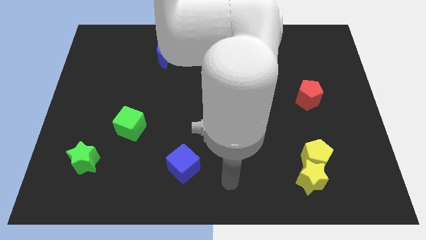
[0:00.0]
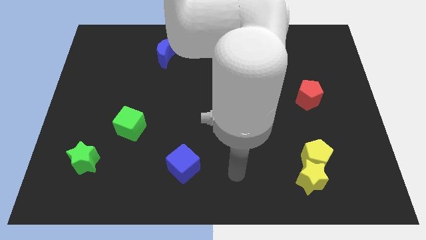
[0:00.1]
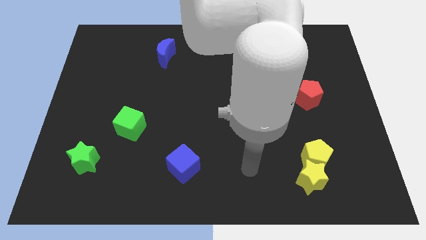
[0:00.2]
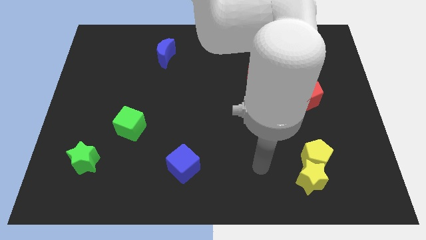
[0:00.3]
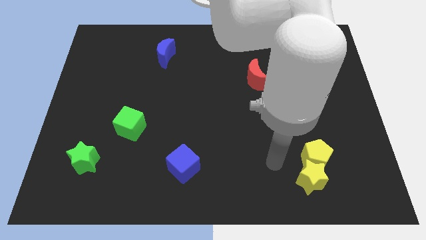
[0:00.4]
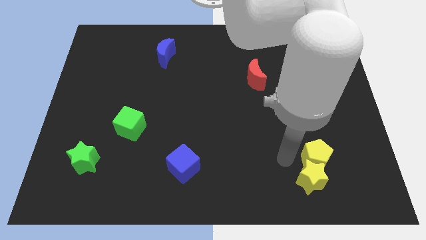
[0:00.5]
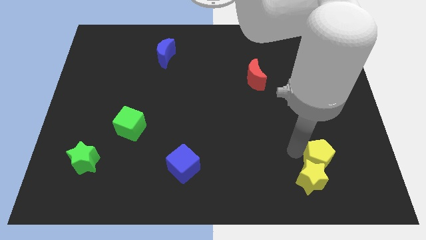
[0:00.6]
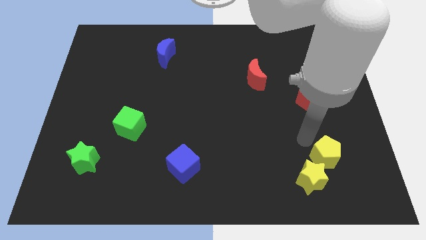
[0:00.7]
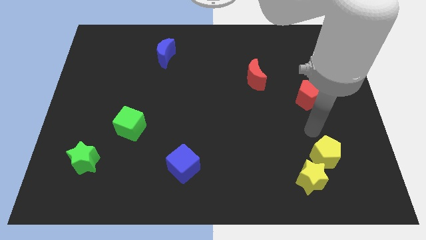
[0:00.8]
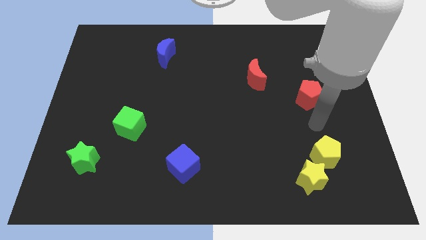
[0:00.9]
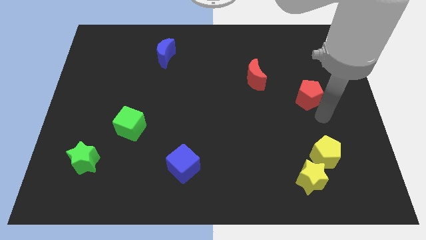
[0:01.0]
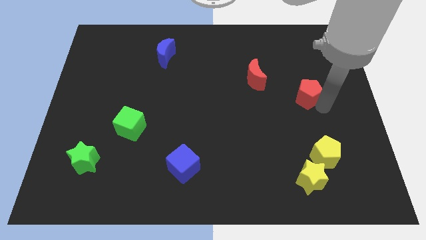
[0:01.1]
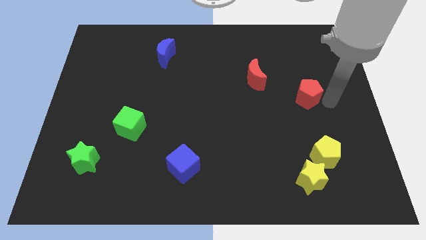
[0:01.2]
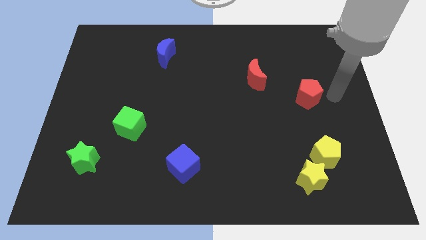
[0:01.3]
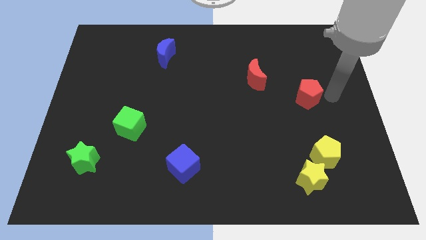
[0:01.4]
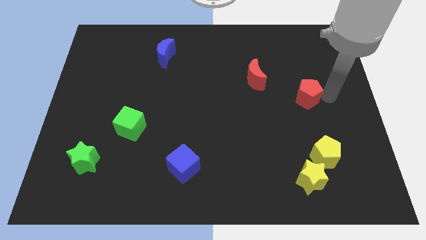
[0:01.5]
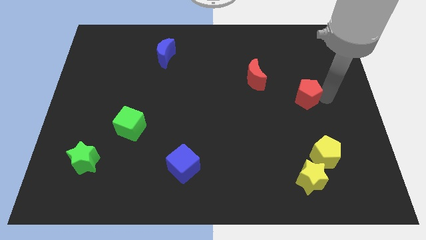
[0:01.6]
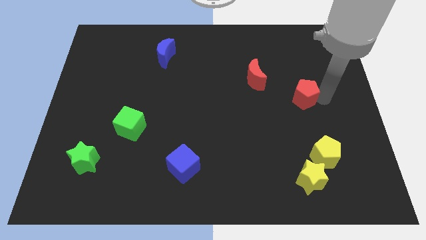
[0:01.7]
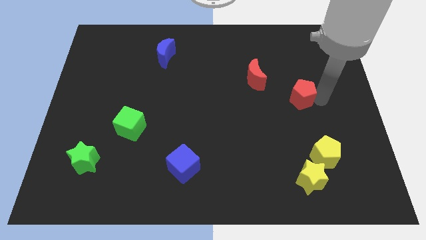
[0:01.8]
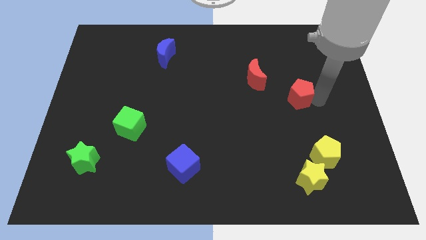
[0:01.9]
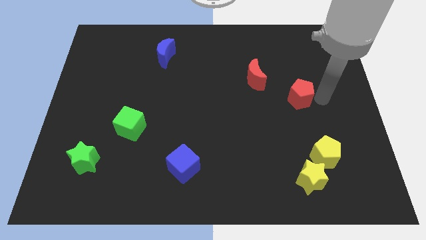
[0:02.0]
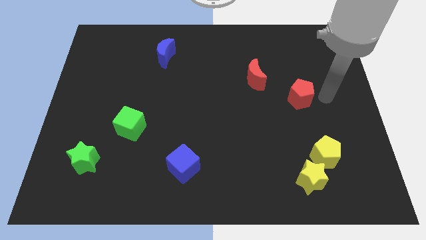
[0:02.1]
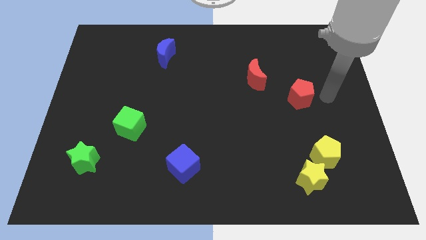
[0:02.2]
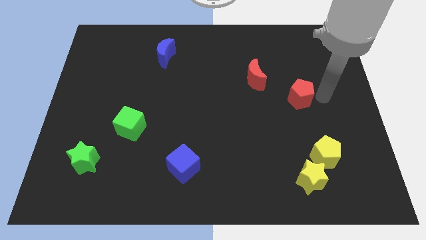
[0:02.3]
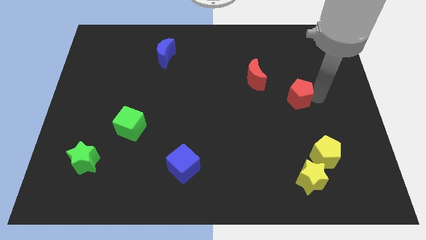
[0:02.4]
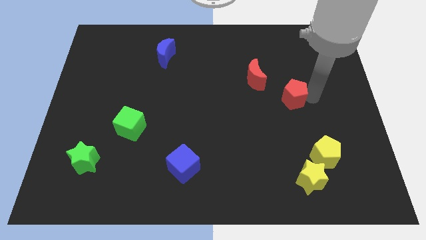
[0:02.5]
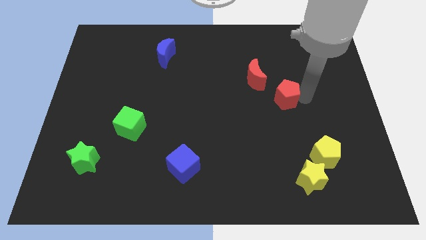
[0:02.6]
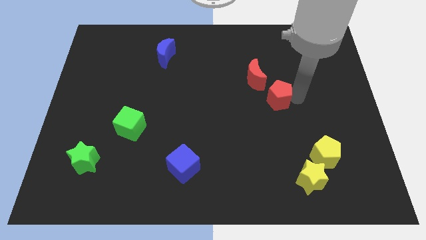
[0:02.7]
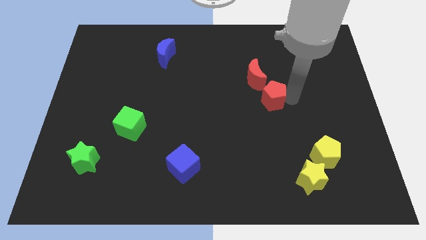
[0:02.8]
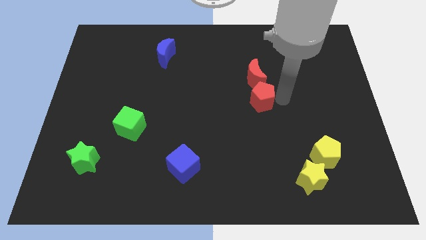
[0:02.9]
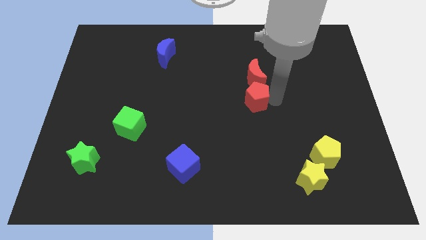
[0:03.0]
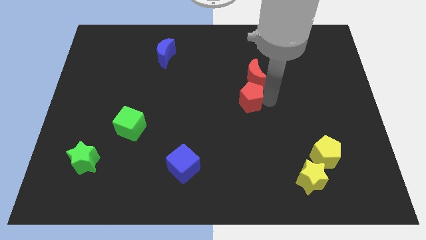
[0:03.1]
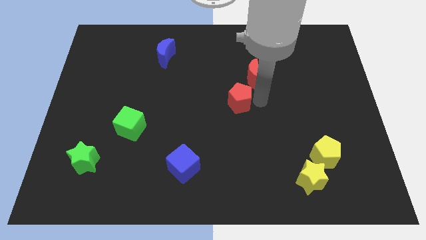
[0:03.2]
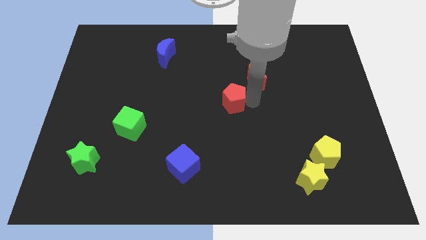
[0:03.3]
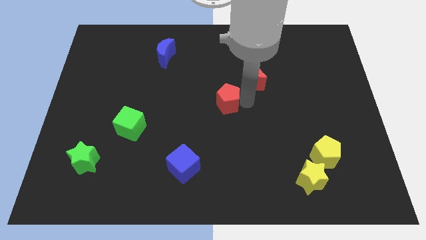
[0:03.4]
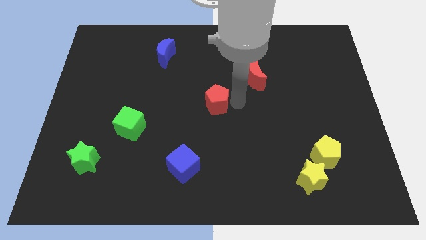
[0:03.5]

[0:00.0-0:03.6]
push the red pentagon left

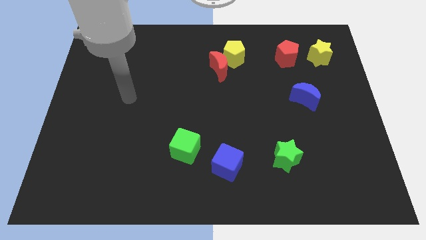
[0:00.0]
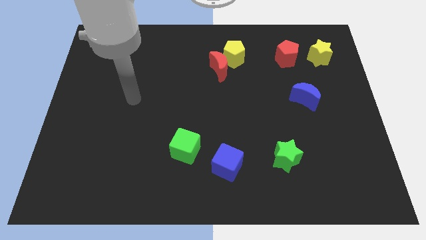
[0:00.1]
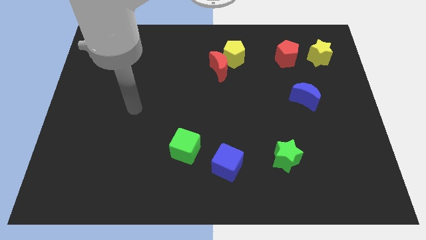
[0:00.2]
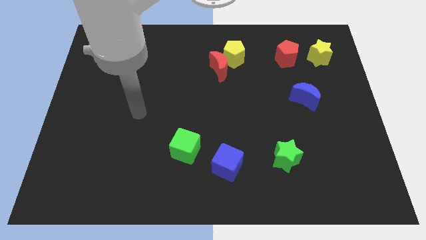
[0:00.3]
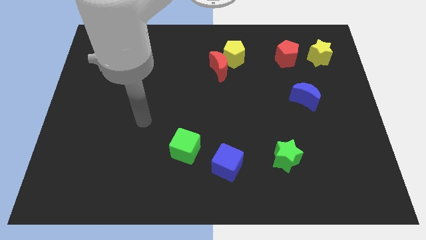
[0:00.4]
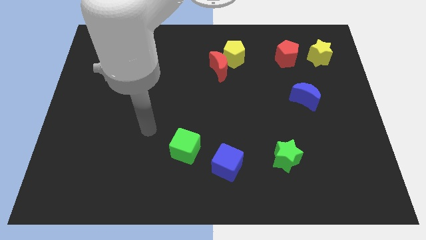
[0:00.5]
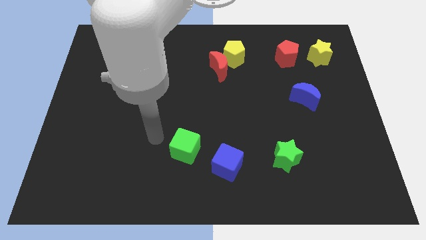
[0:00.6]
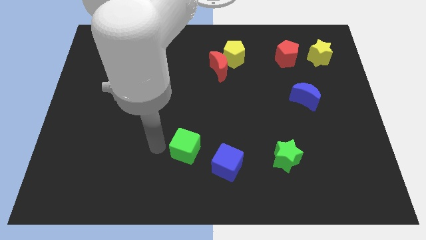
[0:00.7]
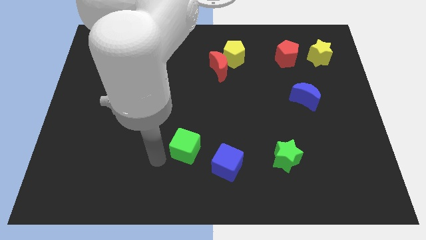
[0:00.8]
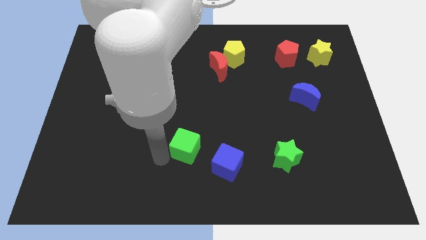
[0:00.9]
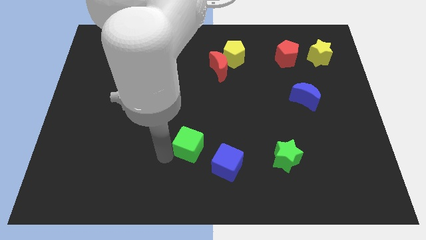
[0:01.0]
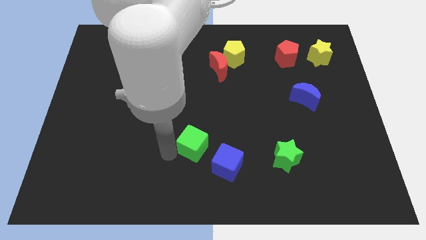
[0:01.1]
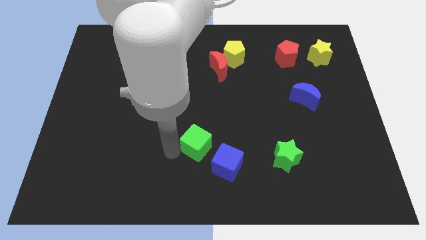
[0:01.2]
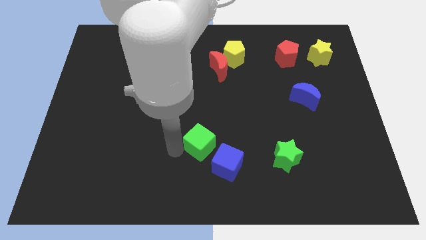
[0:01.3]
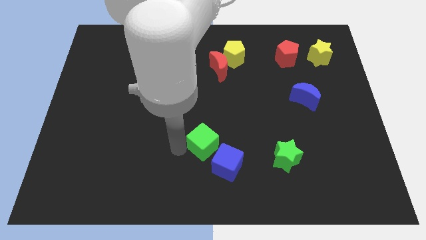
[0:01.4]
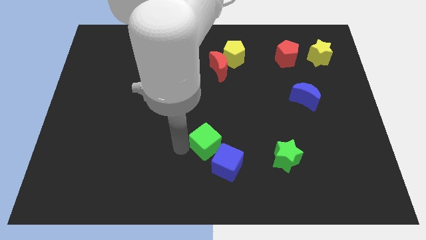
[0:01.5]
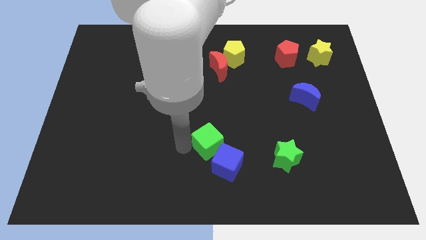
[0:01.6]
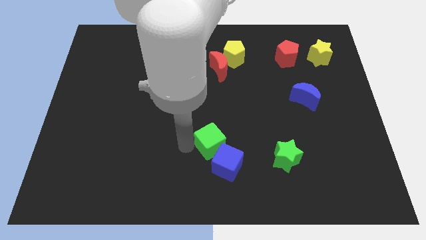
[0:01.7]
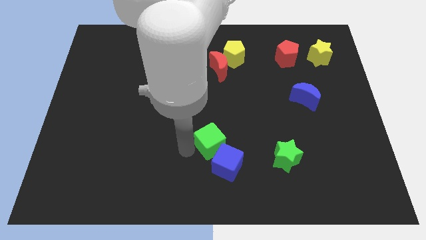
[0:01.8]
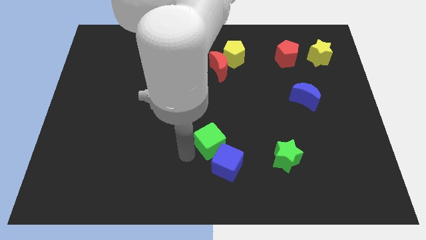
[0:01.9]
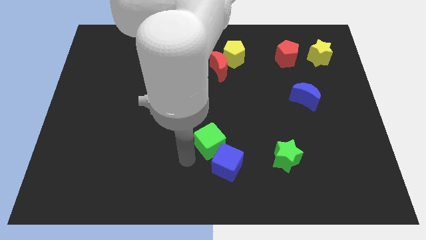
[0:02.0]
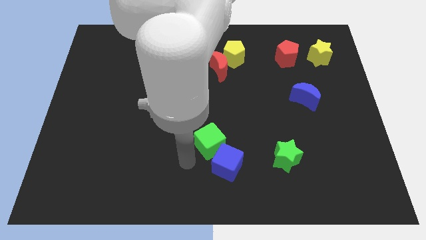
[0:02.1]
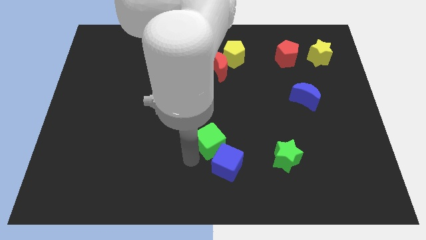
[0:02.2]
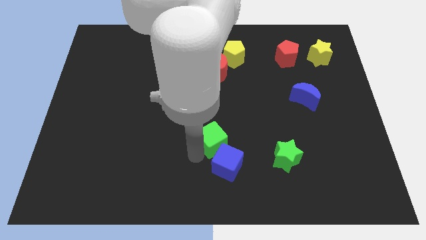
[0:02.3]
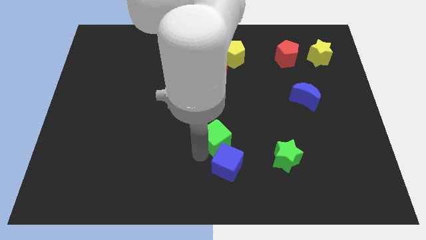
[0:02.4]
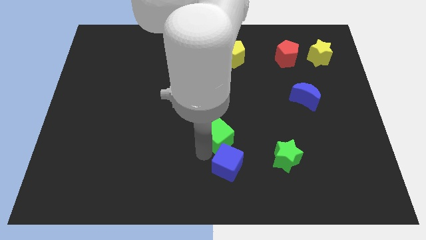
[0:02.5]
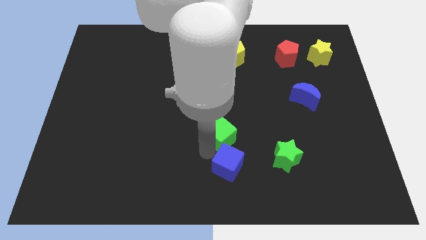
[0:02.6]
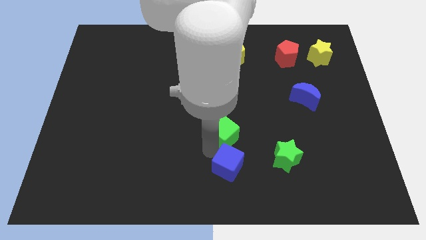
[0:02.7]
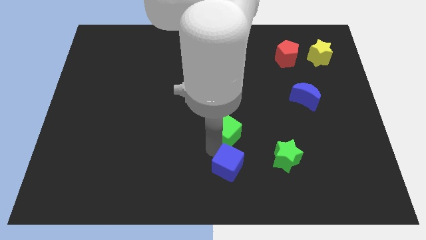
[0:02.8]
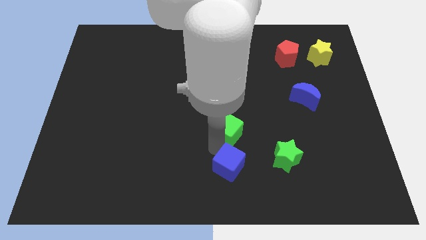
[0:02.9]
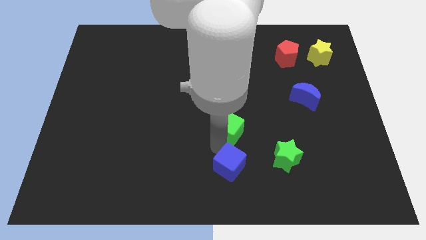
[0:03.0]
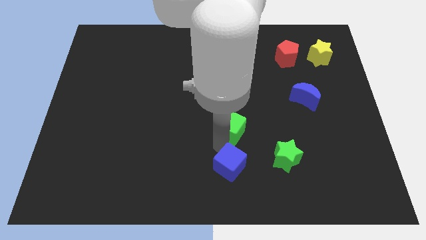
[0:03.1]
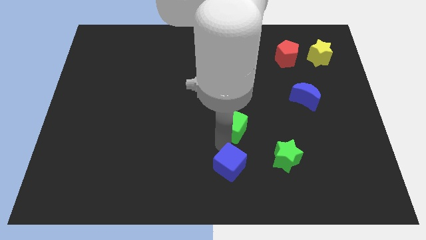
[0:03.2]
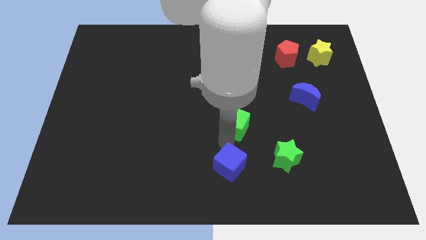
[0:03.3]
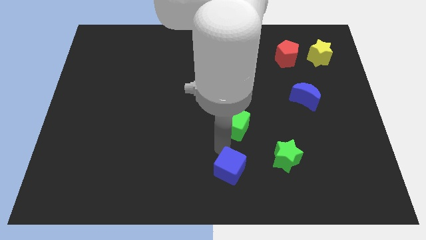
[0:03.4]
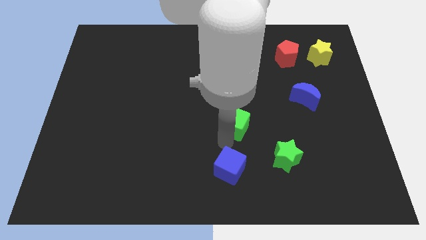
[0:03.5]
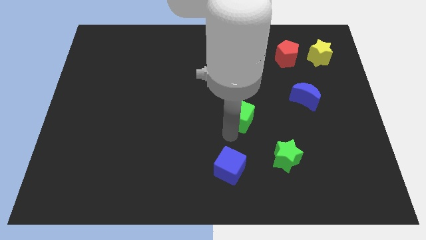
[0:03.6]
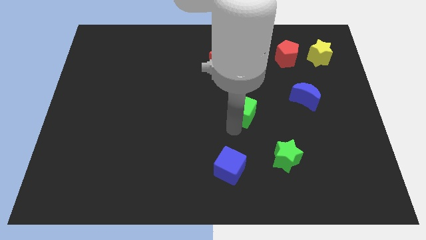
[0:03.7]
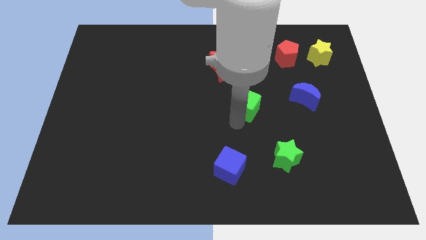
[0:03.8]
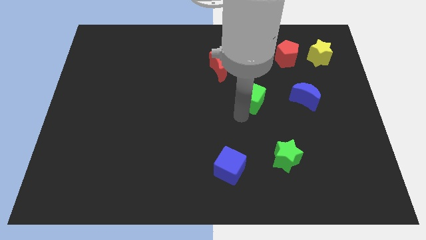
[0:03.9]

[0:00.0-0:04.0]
push the green cube up and then to the right

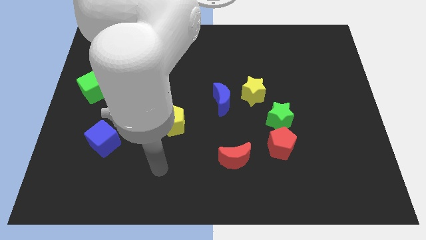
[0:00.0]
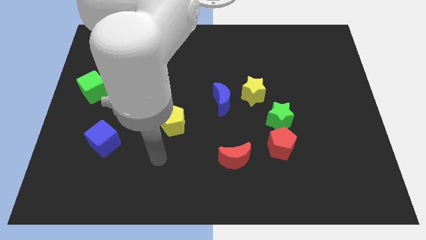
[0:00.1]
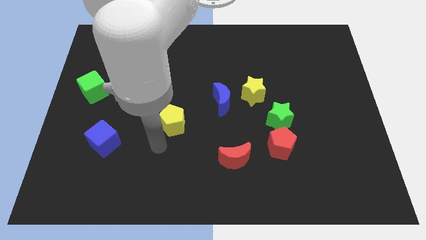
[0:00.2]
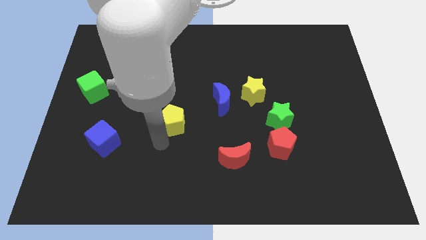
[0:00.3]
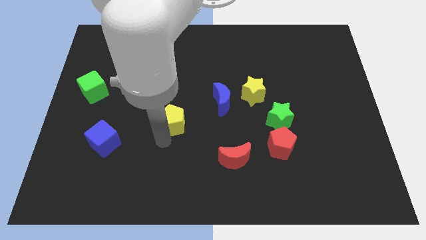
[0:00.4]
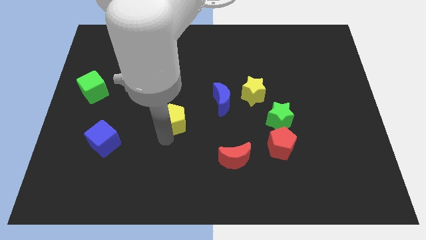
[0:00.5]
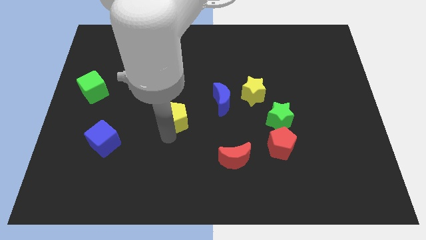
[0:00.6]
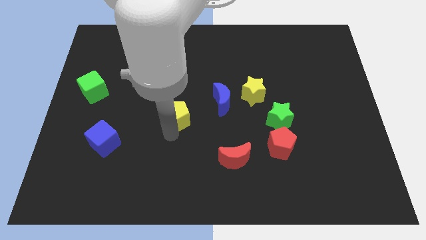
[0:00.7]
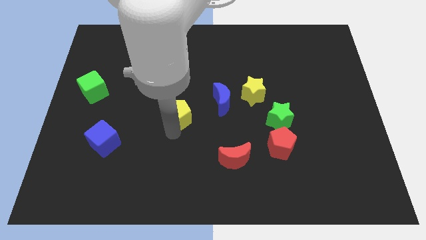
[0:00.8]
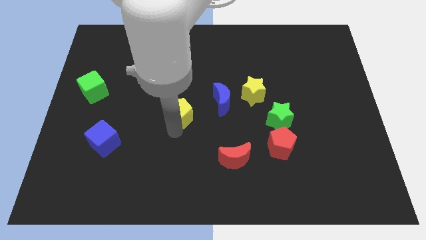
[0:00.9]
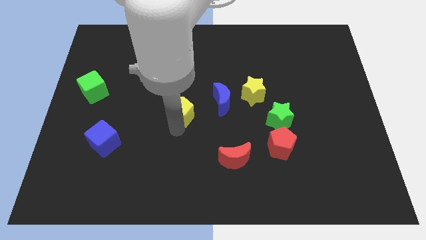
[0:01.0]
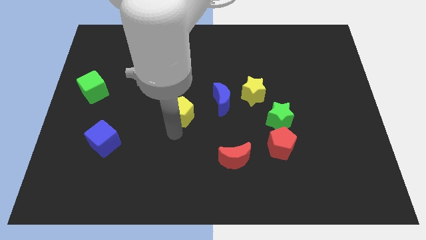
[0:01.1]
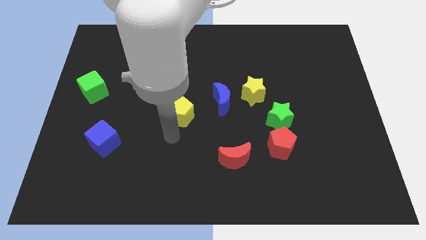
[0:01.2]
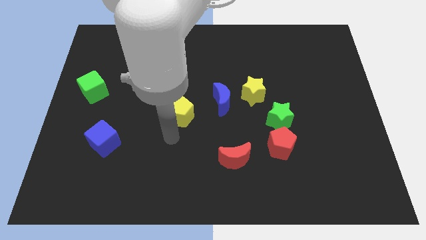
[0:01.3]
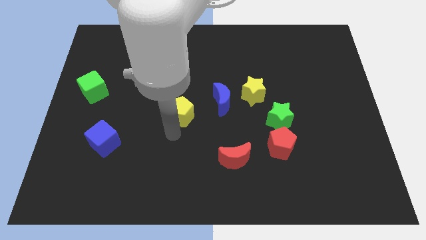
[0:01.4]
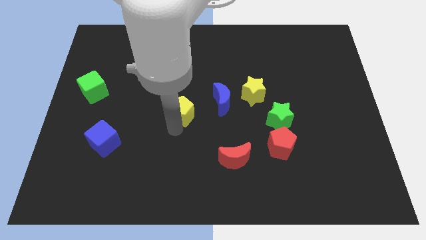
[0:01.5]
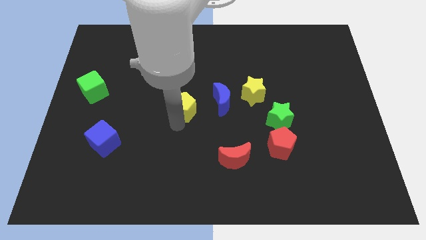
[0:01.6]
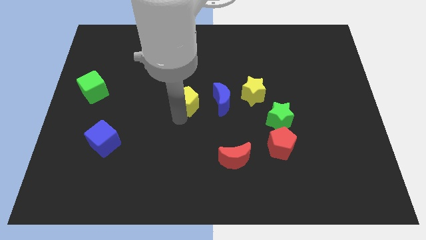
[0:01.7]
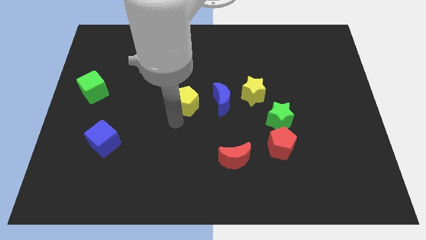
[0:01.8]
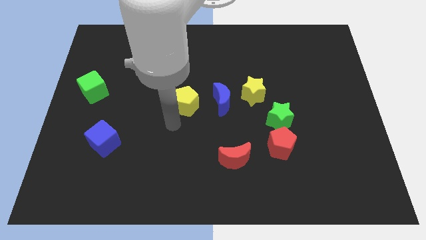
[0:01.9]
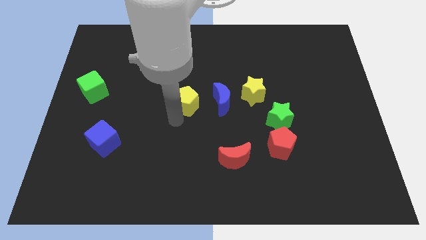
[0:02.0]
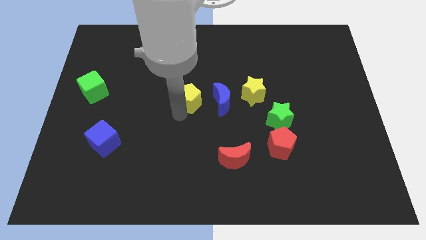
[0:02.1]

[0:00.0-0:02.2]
slide the yellow pentagon upwards and then right a bit
